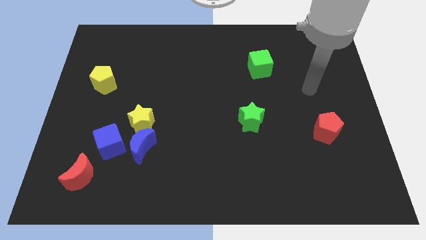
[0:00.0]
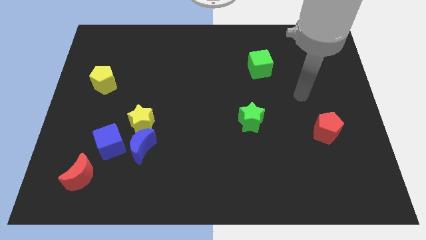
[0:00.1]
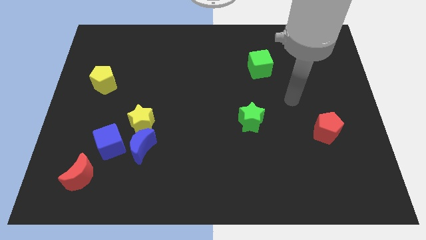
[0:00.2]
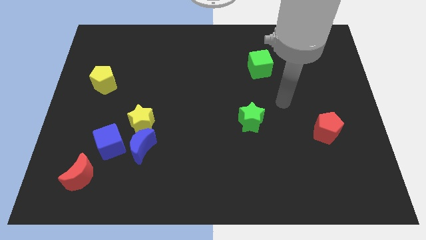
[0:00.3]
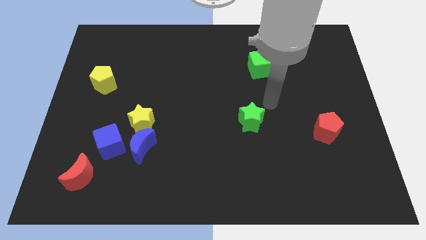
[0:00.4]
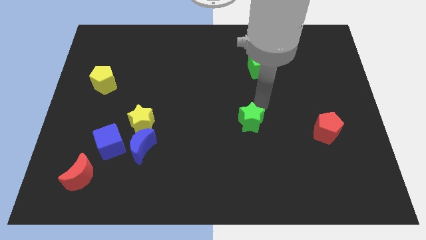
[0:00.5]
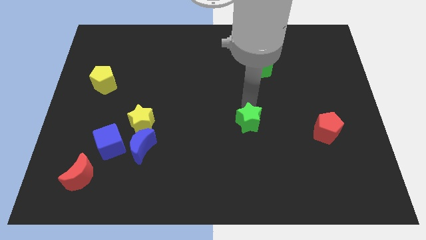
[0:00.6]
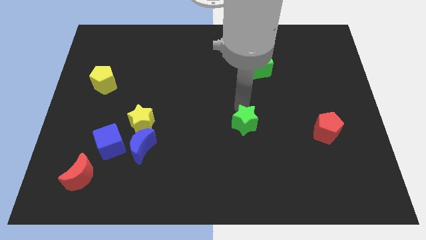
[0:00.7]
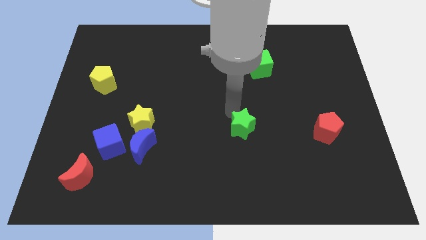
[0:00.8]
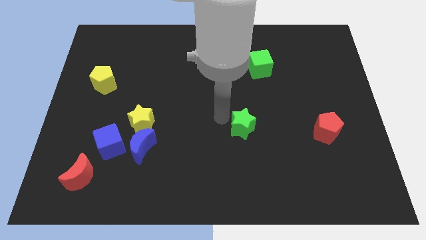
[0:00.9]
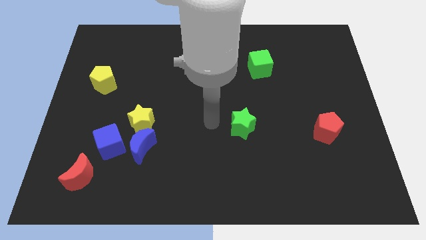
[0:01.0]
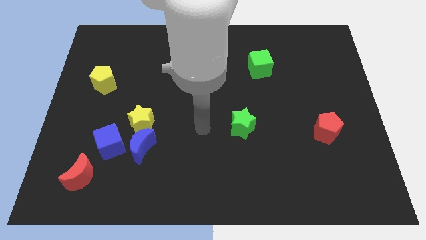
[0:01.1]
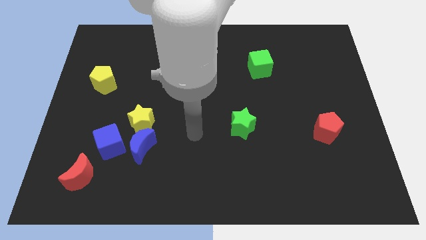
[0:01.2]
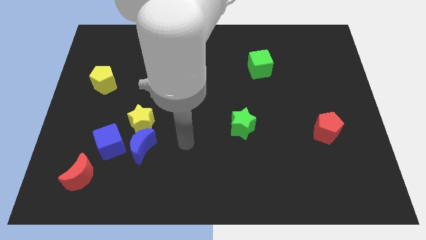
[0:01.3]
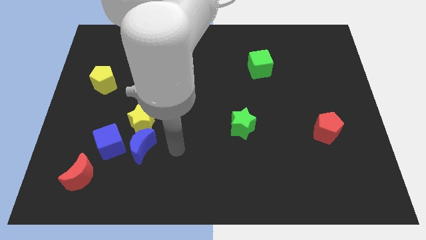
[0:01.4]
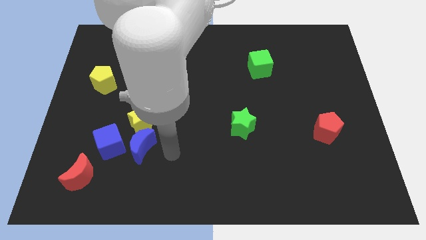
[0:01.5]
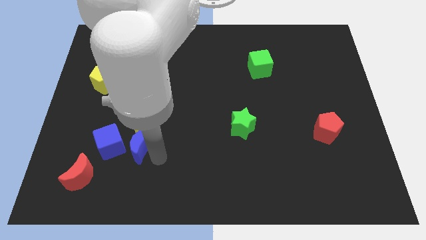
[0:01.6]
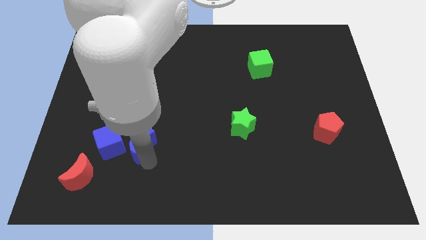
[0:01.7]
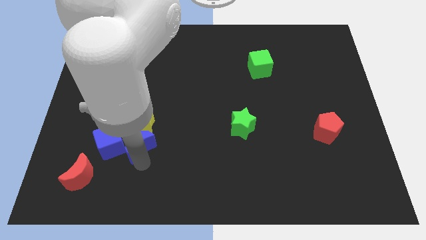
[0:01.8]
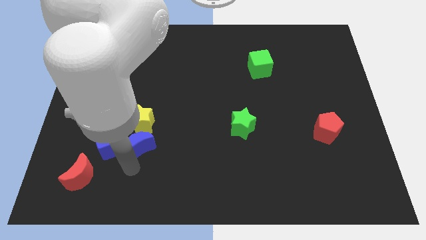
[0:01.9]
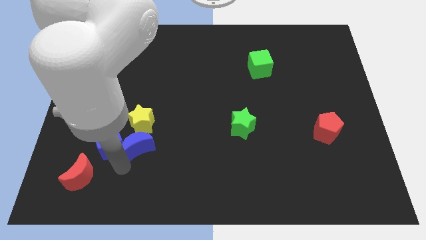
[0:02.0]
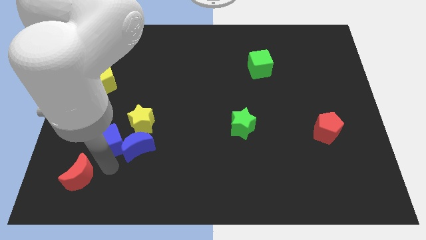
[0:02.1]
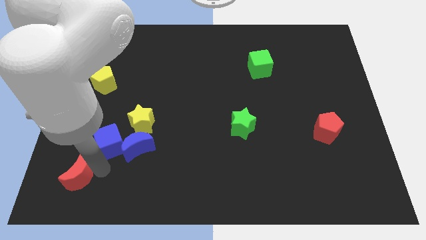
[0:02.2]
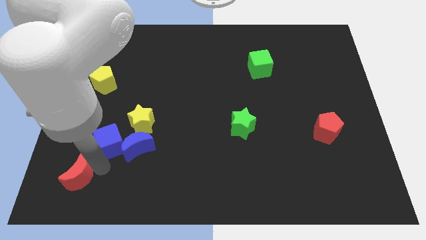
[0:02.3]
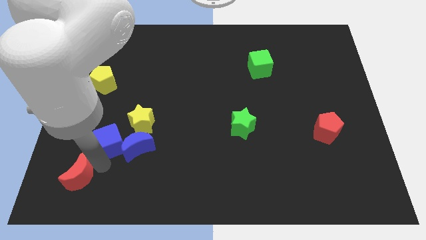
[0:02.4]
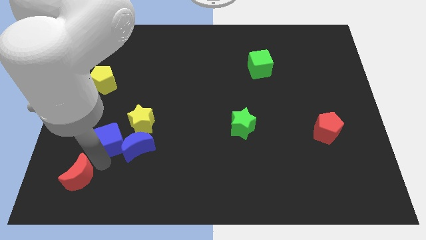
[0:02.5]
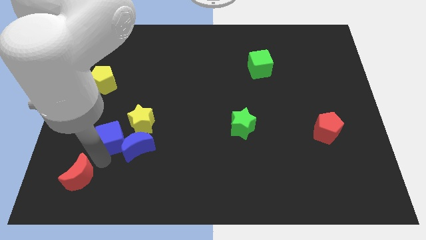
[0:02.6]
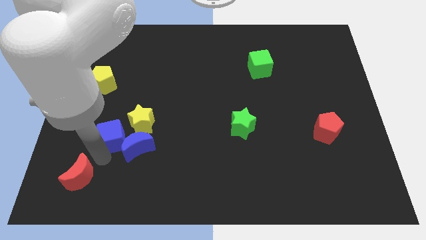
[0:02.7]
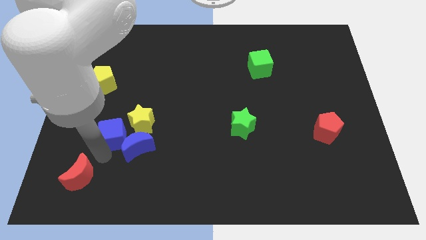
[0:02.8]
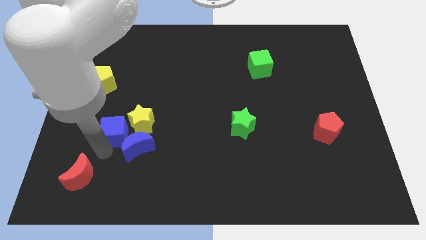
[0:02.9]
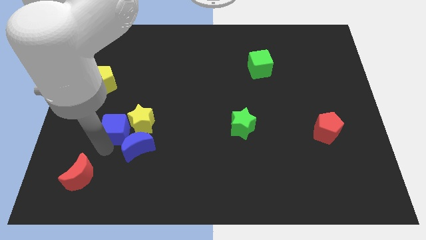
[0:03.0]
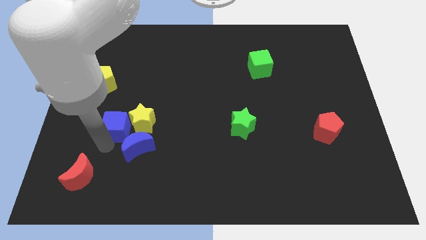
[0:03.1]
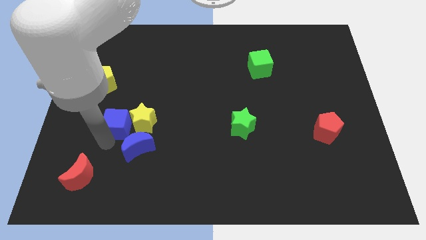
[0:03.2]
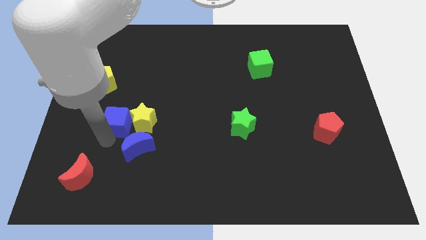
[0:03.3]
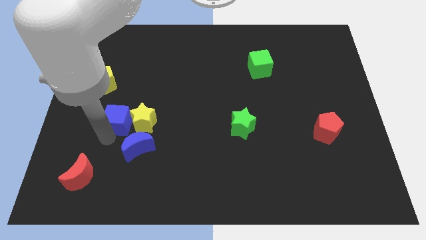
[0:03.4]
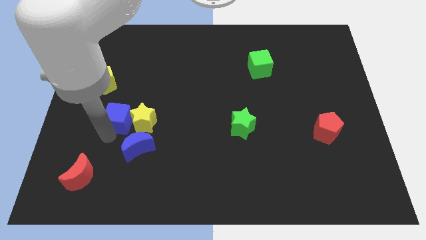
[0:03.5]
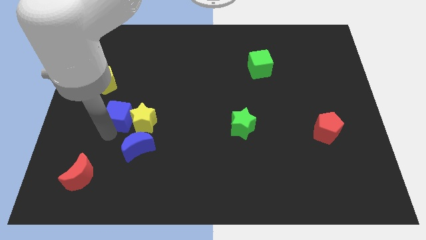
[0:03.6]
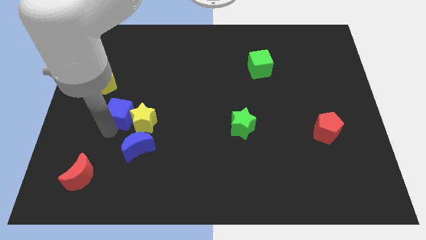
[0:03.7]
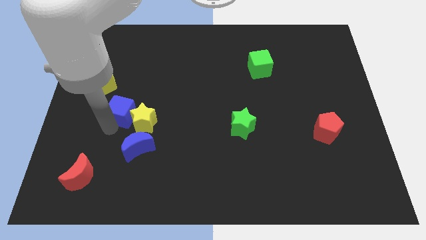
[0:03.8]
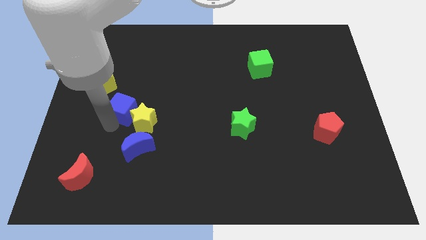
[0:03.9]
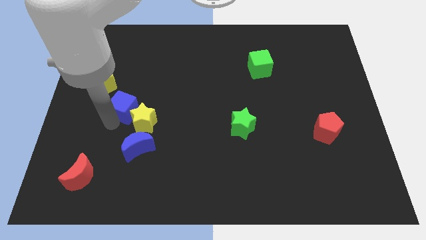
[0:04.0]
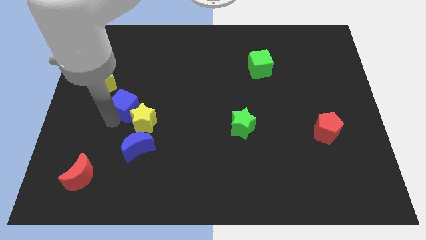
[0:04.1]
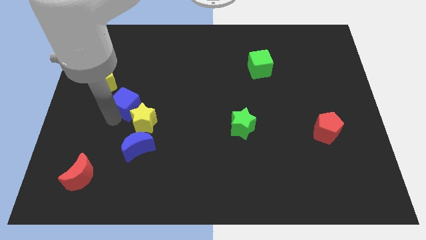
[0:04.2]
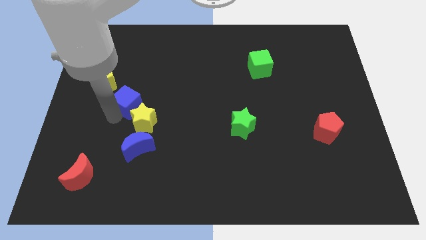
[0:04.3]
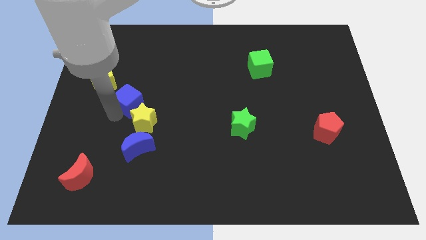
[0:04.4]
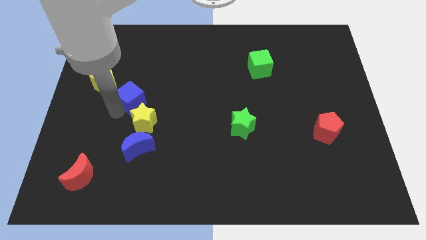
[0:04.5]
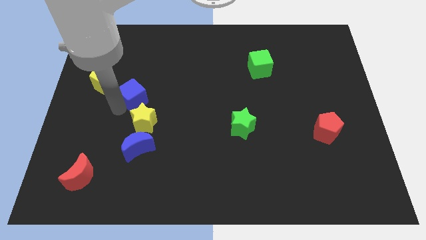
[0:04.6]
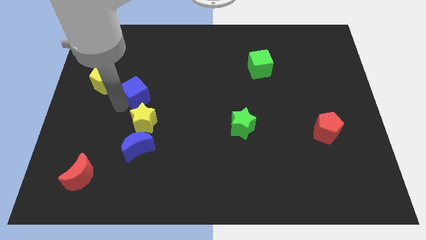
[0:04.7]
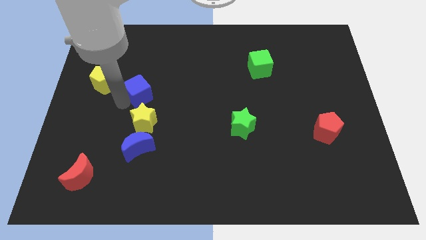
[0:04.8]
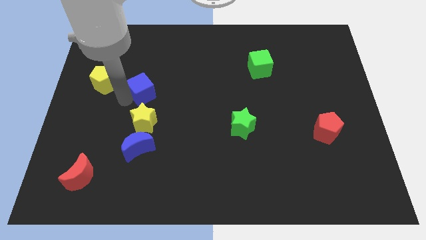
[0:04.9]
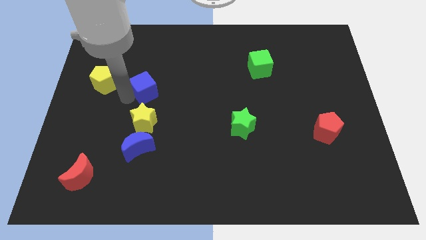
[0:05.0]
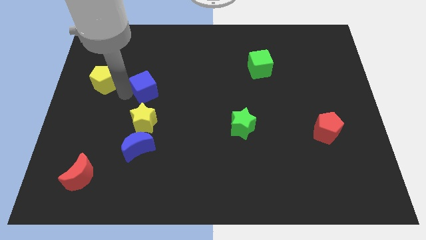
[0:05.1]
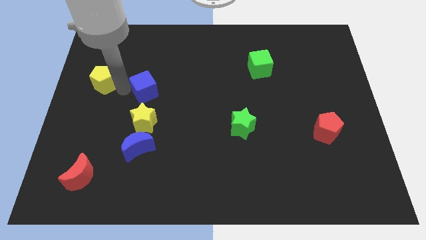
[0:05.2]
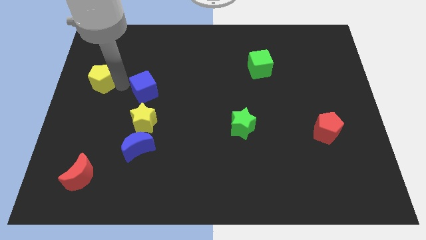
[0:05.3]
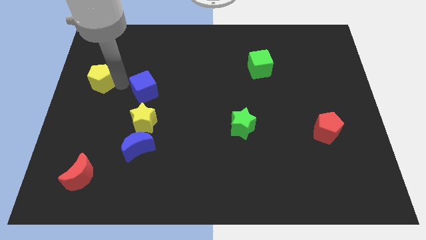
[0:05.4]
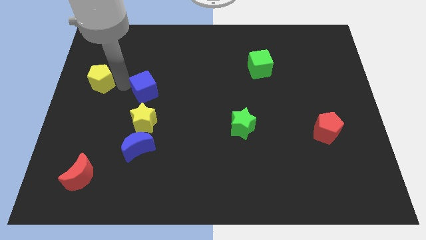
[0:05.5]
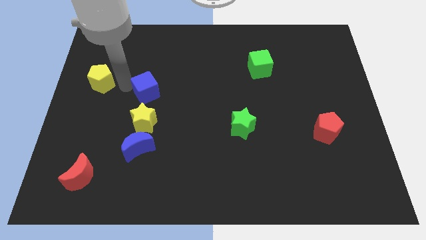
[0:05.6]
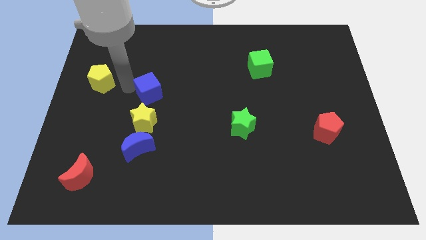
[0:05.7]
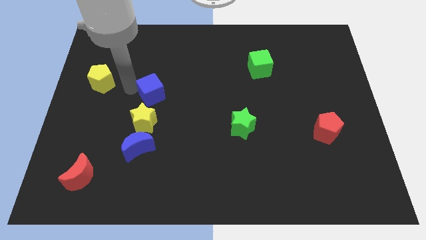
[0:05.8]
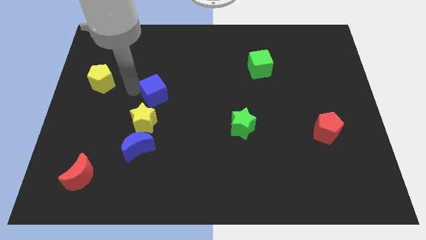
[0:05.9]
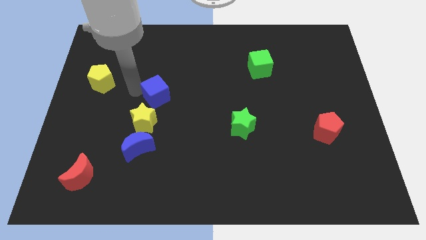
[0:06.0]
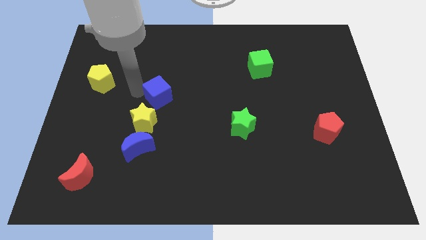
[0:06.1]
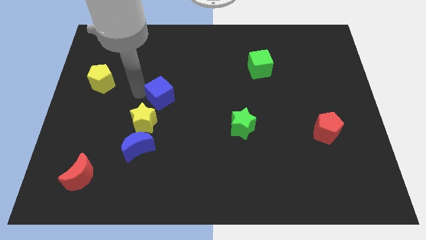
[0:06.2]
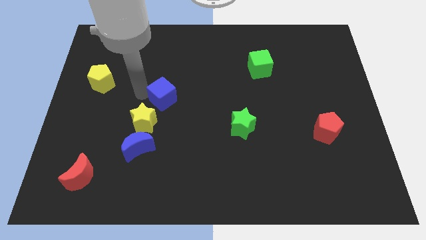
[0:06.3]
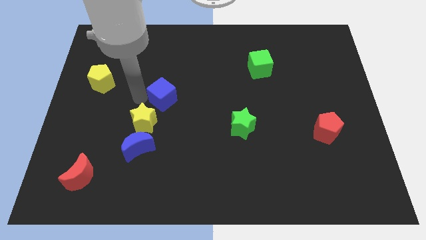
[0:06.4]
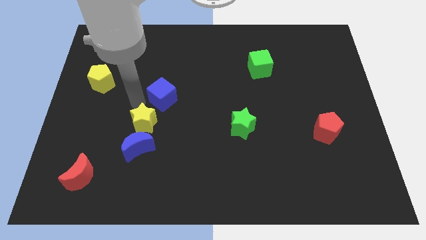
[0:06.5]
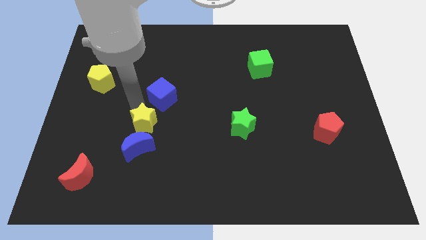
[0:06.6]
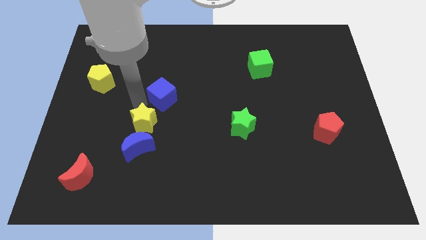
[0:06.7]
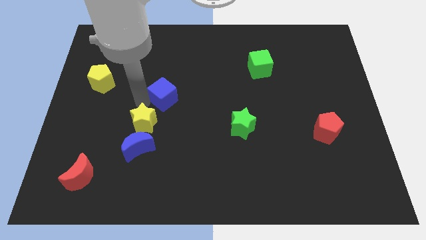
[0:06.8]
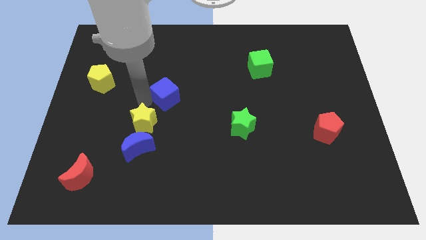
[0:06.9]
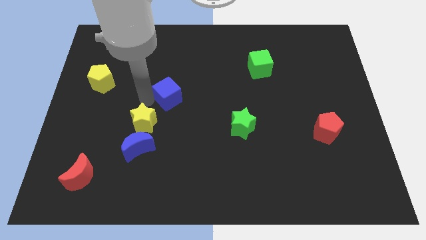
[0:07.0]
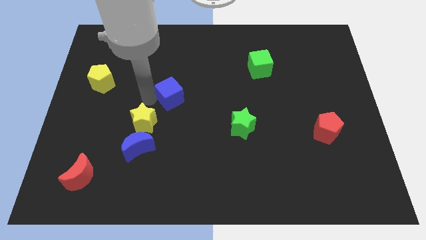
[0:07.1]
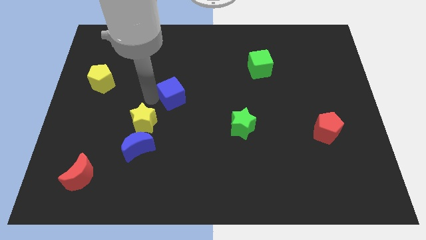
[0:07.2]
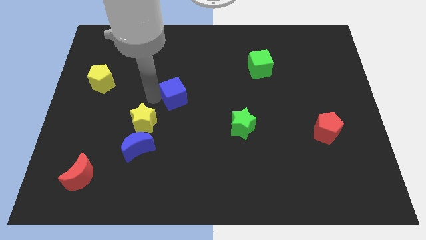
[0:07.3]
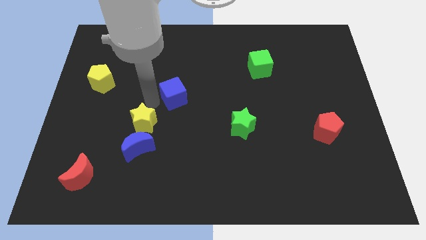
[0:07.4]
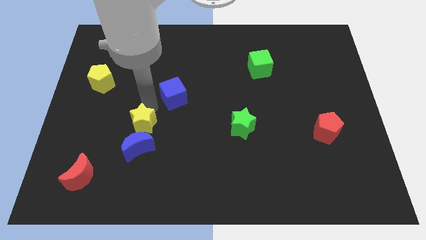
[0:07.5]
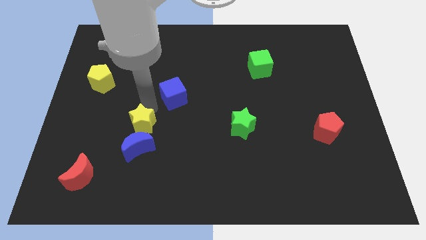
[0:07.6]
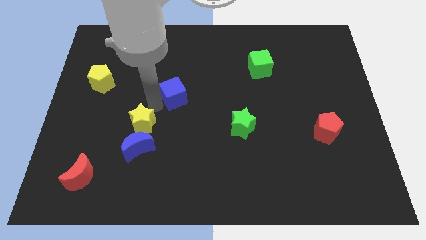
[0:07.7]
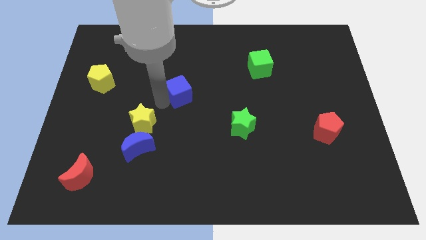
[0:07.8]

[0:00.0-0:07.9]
move the blue cube upwards and right

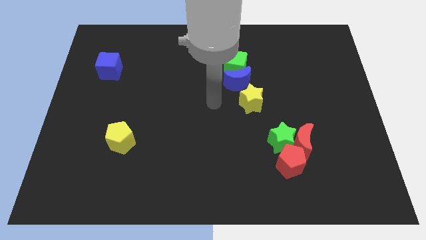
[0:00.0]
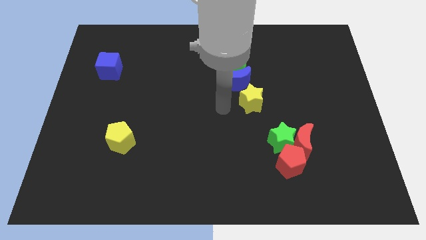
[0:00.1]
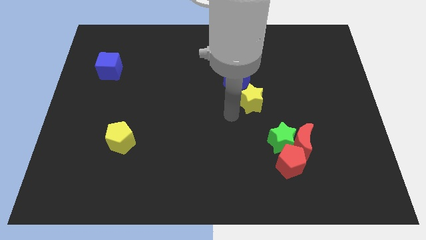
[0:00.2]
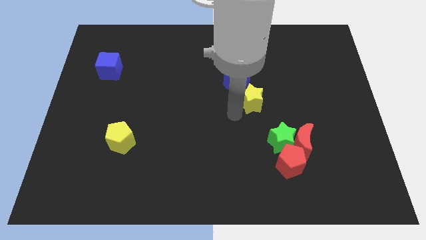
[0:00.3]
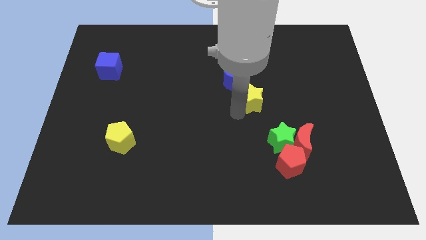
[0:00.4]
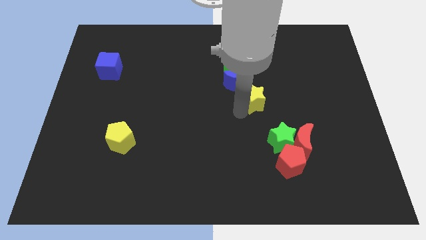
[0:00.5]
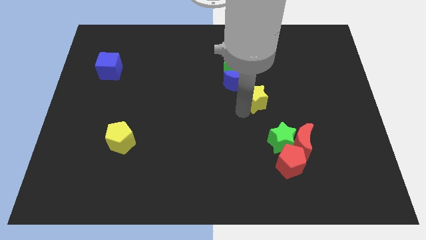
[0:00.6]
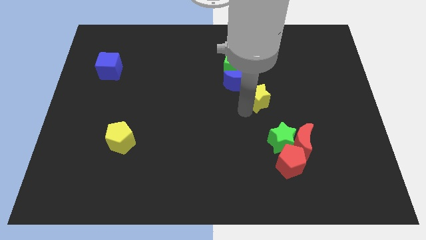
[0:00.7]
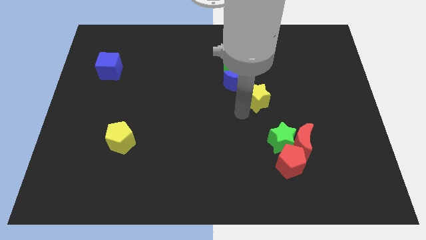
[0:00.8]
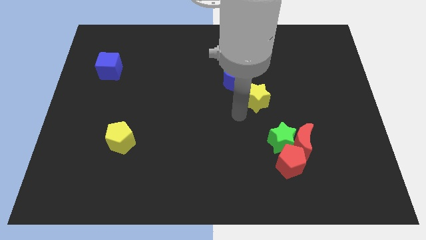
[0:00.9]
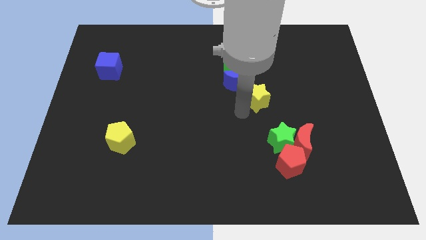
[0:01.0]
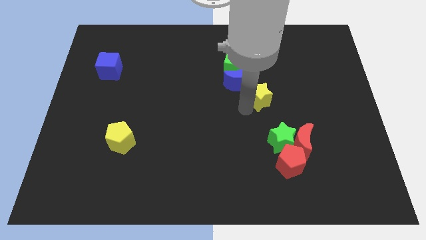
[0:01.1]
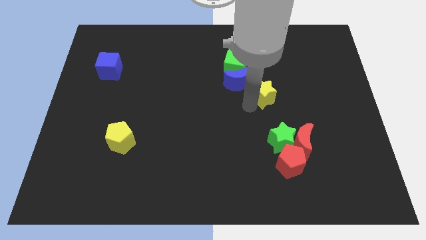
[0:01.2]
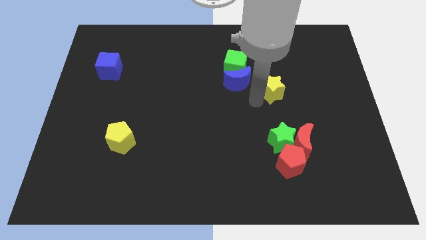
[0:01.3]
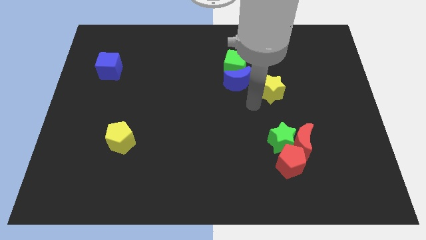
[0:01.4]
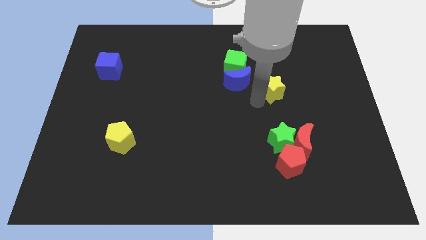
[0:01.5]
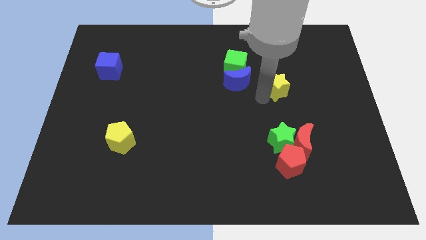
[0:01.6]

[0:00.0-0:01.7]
push the yellow star up and right a little bit
